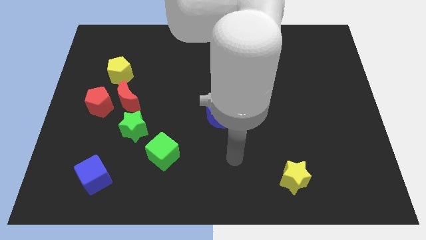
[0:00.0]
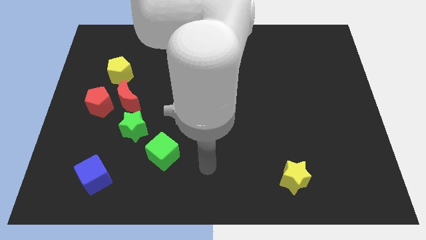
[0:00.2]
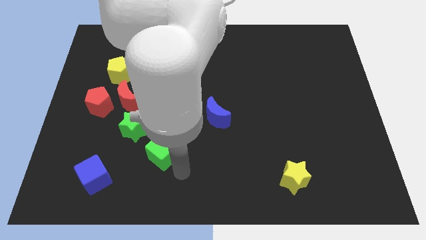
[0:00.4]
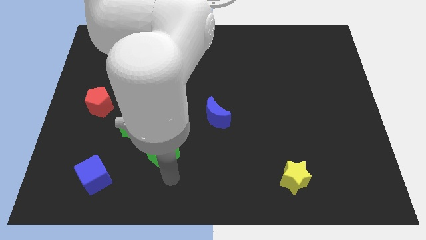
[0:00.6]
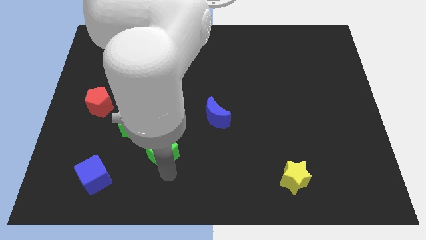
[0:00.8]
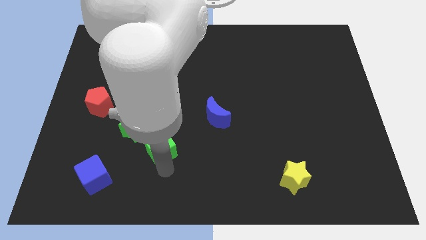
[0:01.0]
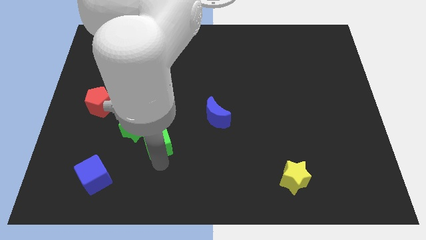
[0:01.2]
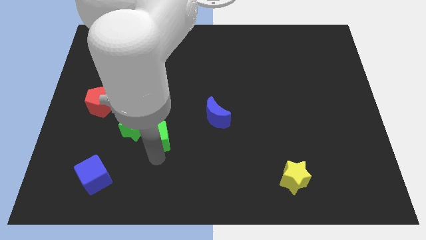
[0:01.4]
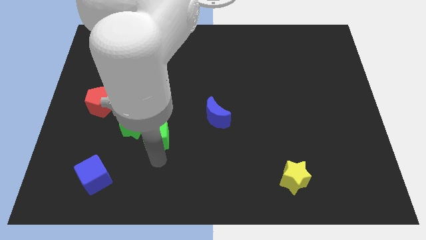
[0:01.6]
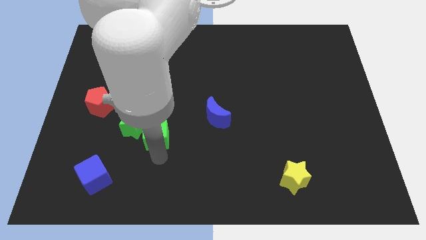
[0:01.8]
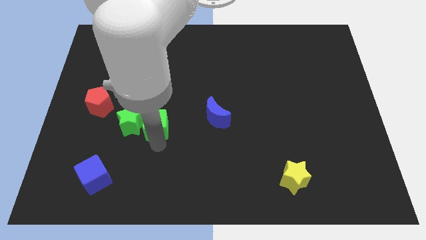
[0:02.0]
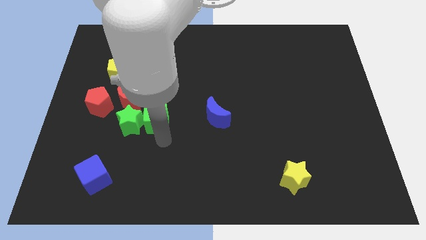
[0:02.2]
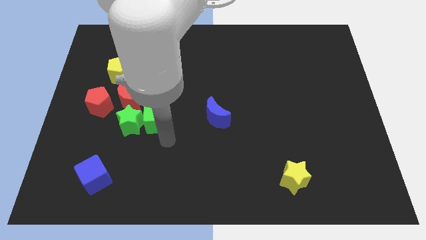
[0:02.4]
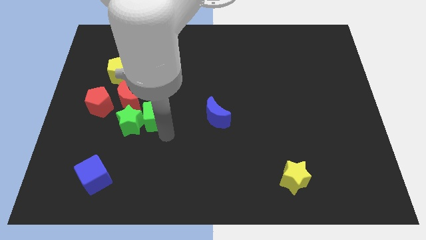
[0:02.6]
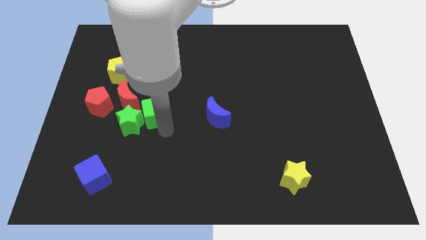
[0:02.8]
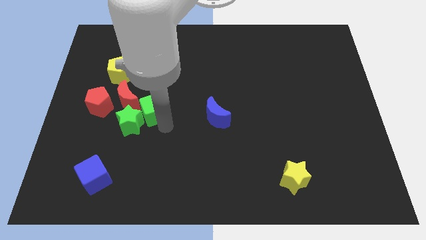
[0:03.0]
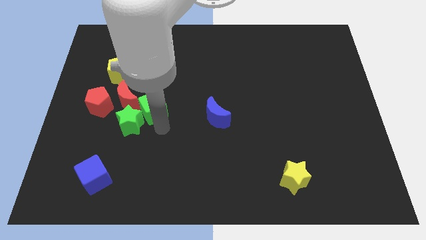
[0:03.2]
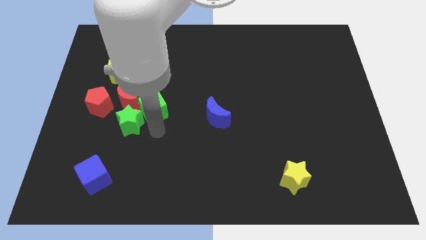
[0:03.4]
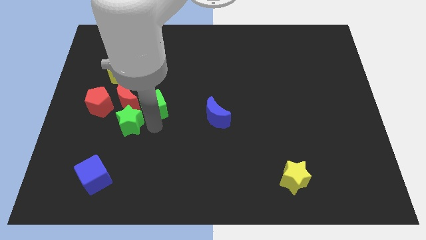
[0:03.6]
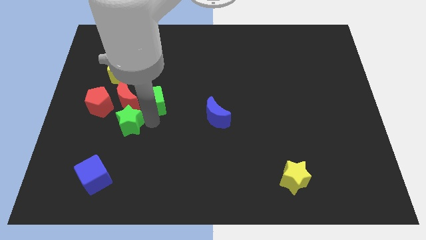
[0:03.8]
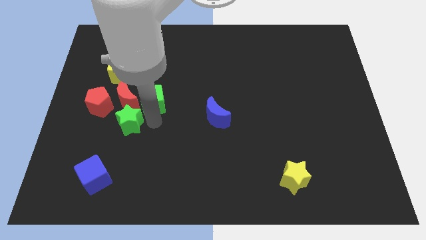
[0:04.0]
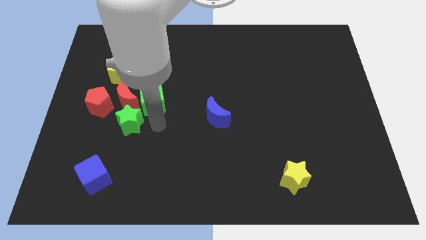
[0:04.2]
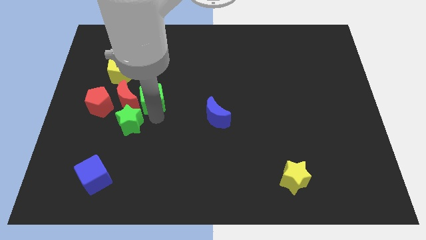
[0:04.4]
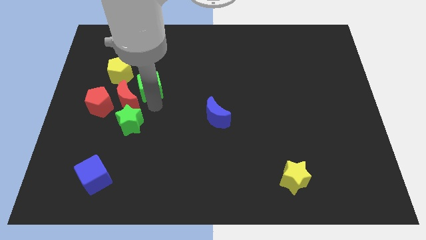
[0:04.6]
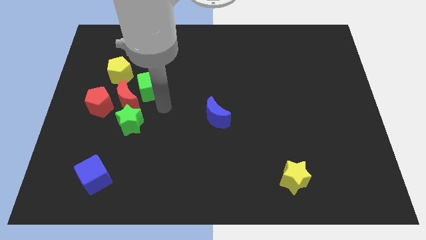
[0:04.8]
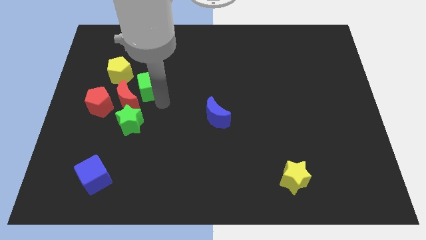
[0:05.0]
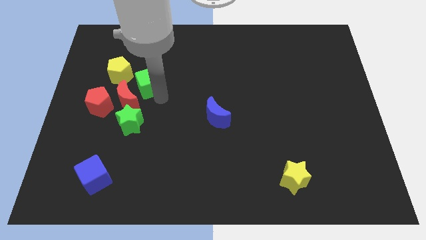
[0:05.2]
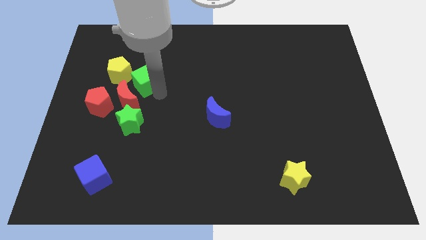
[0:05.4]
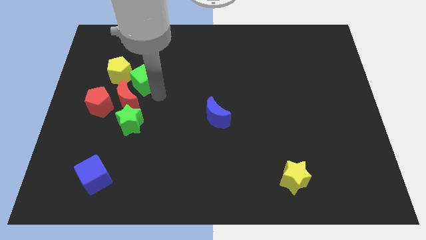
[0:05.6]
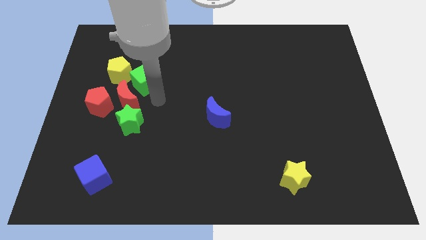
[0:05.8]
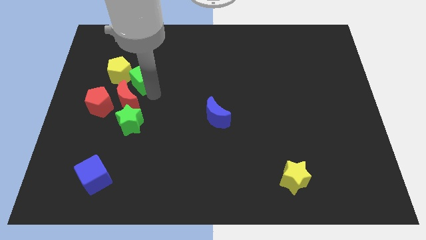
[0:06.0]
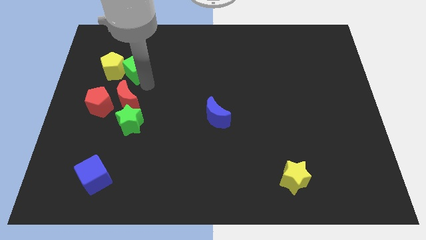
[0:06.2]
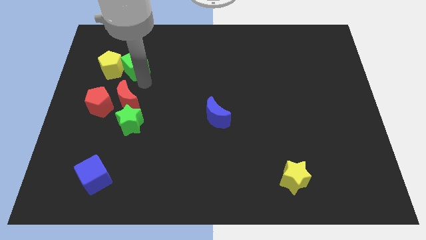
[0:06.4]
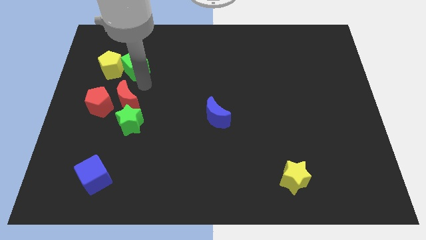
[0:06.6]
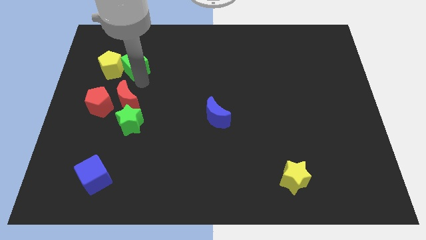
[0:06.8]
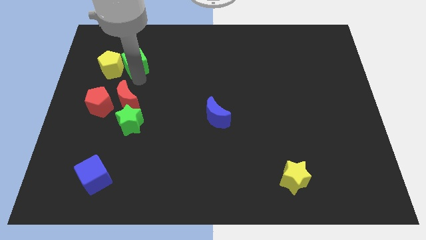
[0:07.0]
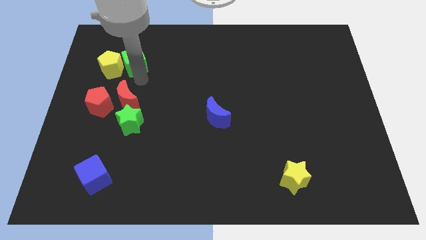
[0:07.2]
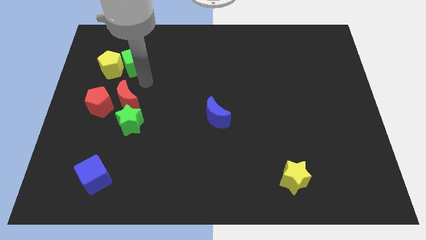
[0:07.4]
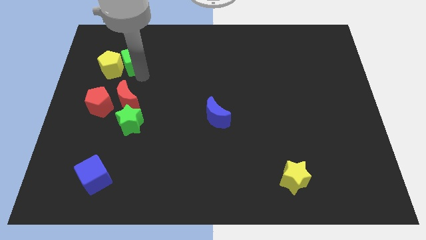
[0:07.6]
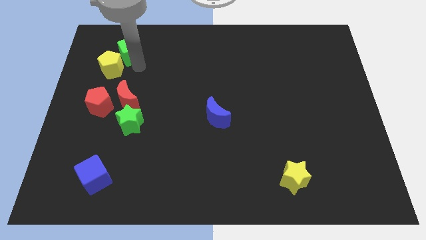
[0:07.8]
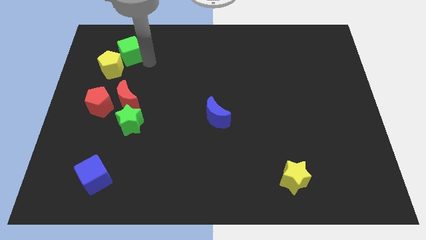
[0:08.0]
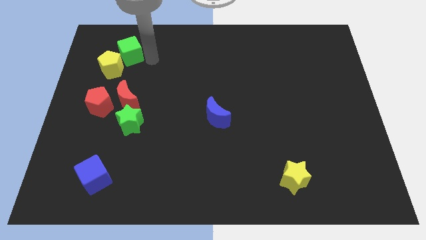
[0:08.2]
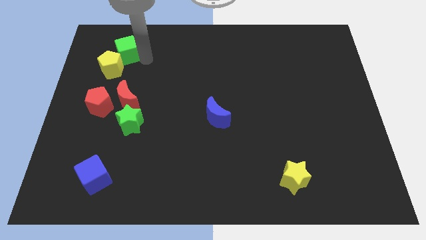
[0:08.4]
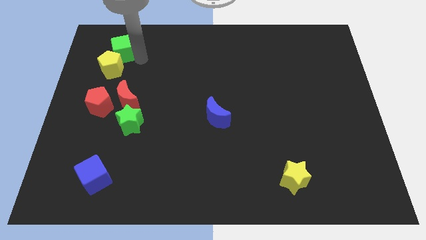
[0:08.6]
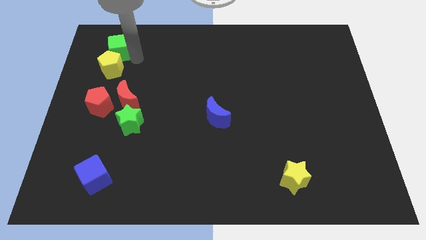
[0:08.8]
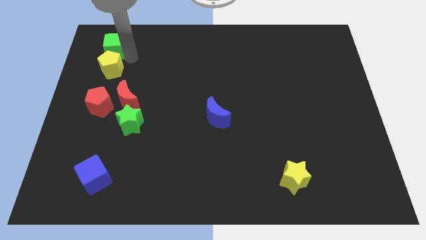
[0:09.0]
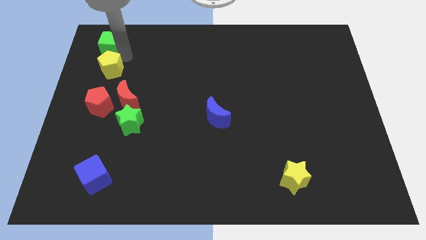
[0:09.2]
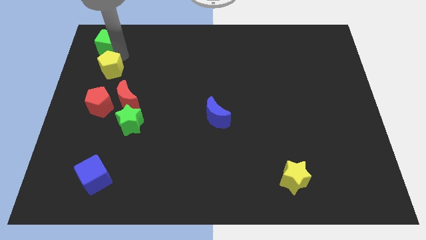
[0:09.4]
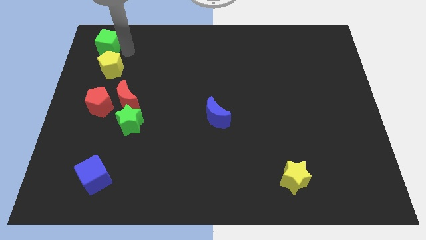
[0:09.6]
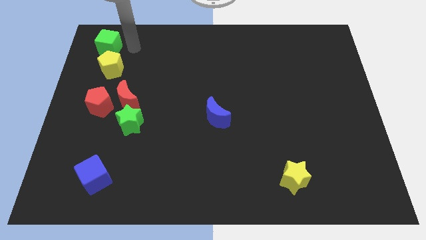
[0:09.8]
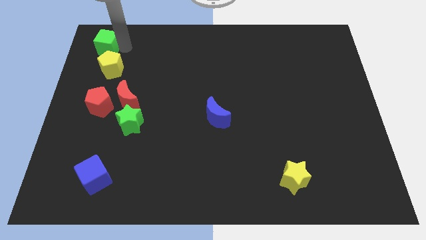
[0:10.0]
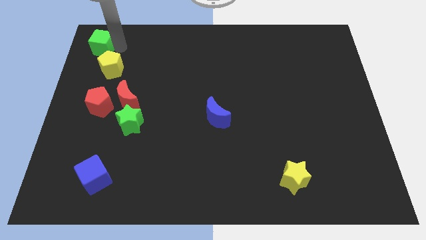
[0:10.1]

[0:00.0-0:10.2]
push the green cube to the upper left corner

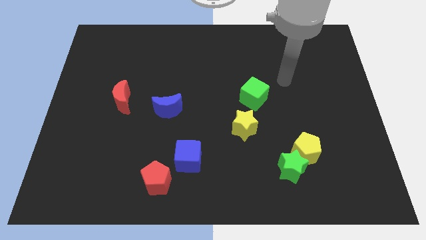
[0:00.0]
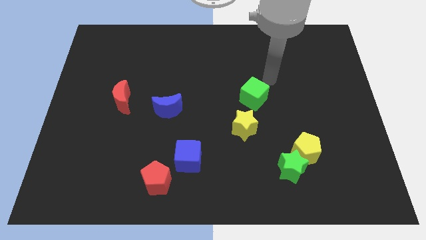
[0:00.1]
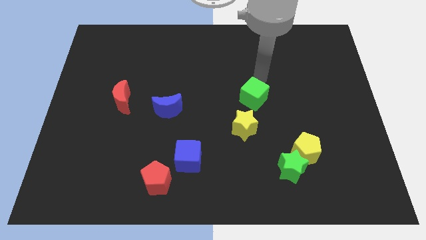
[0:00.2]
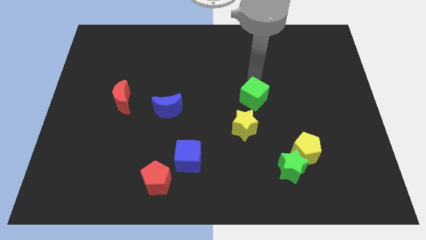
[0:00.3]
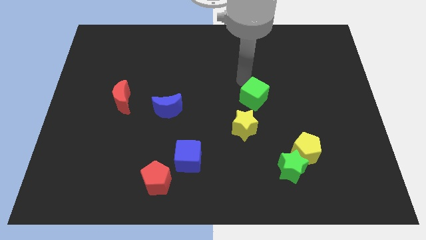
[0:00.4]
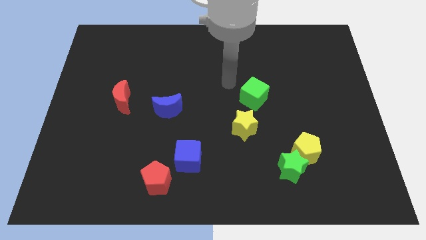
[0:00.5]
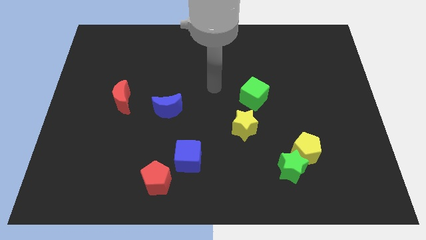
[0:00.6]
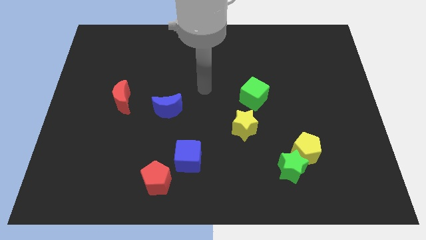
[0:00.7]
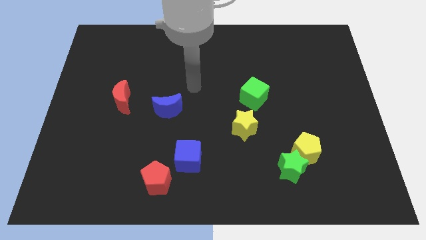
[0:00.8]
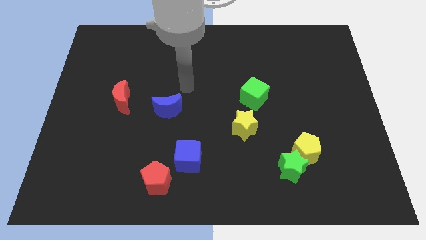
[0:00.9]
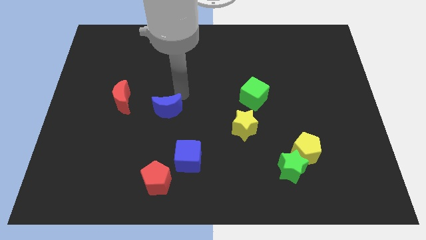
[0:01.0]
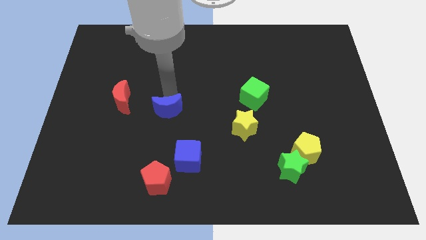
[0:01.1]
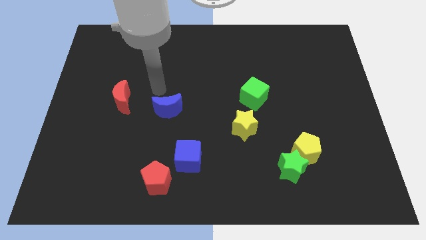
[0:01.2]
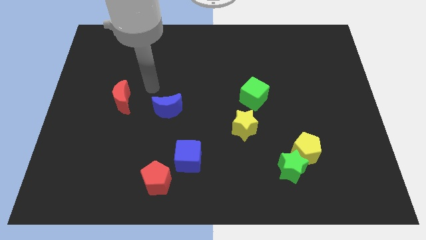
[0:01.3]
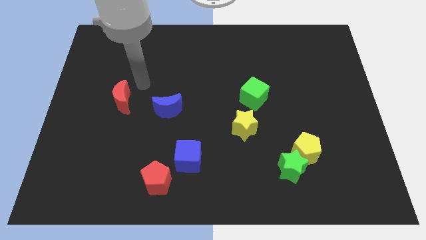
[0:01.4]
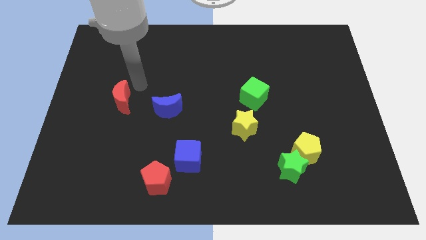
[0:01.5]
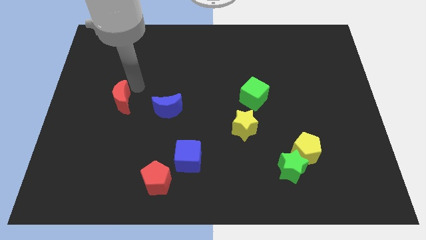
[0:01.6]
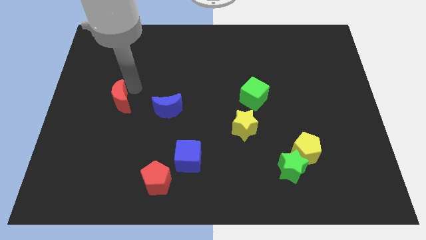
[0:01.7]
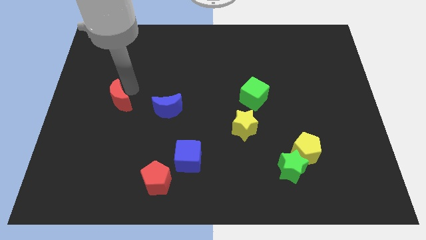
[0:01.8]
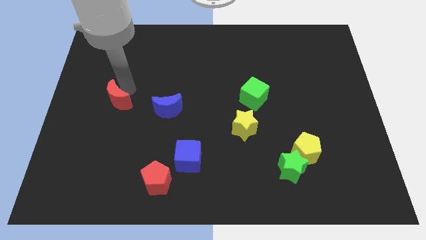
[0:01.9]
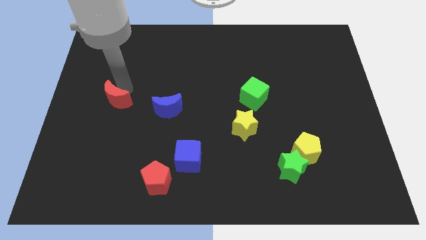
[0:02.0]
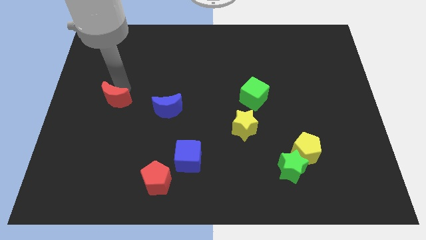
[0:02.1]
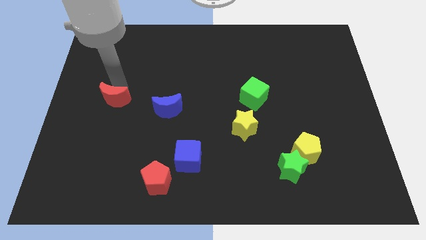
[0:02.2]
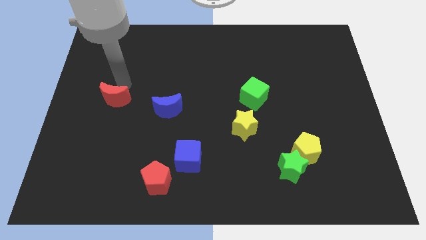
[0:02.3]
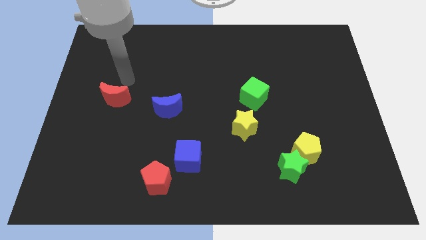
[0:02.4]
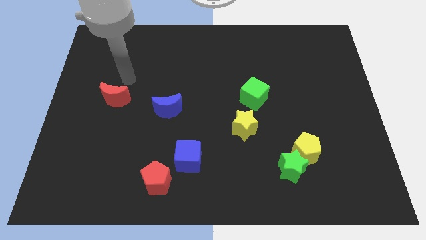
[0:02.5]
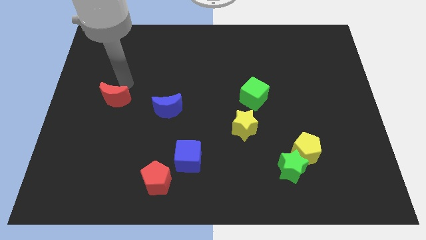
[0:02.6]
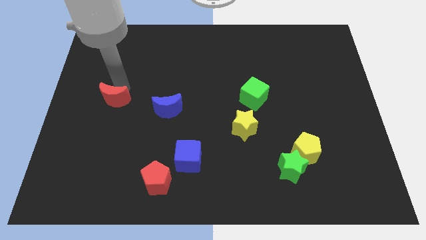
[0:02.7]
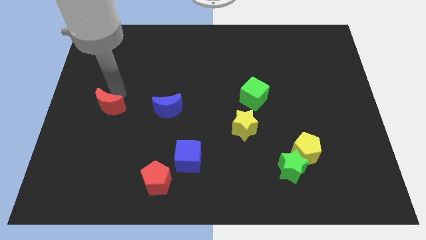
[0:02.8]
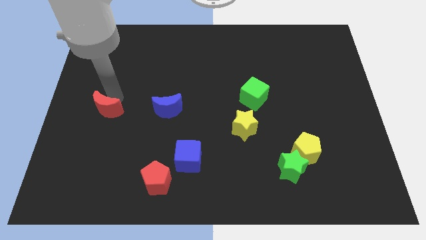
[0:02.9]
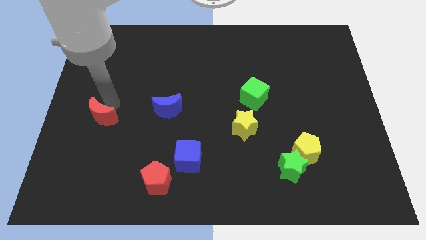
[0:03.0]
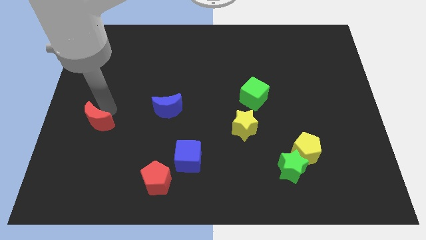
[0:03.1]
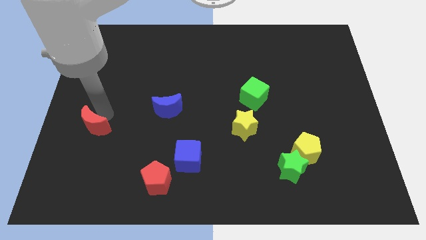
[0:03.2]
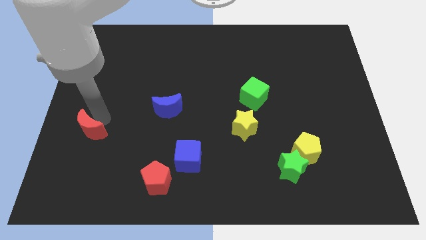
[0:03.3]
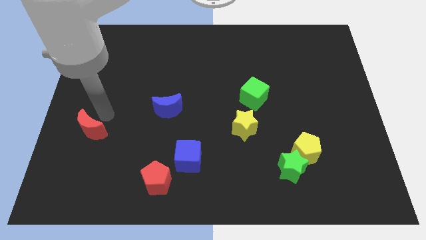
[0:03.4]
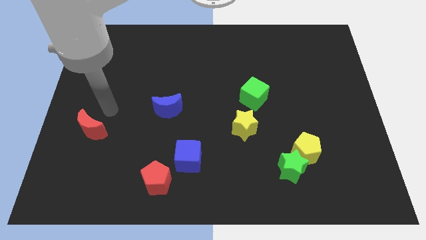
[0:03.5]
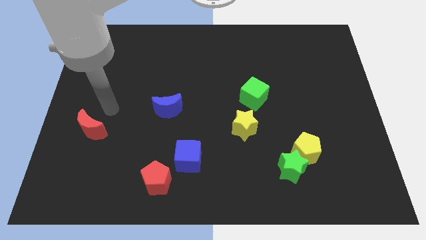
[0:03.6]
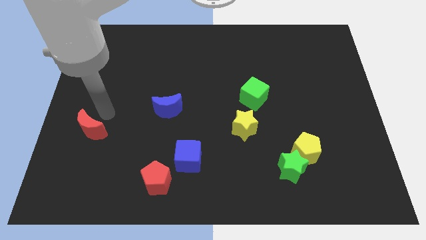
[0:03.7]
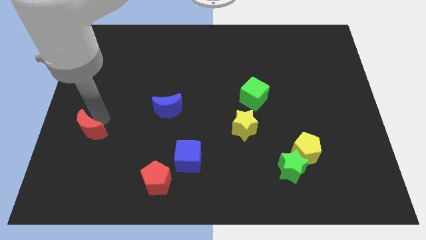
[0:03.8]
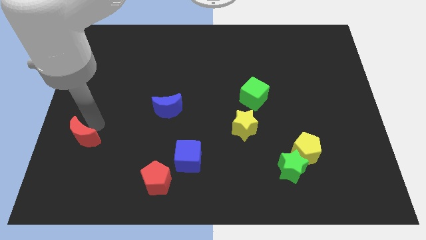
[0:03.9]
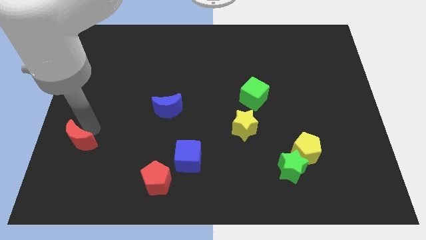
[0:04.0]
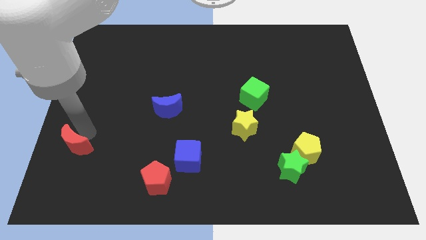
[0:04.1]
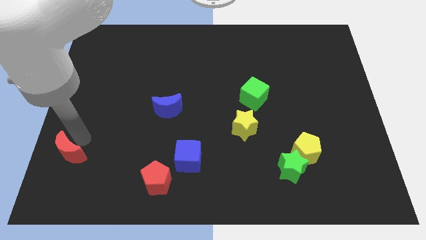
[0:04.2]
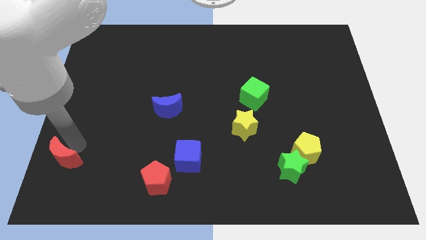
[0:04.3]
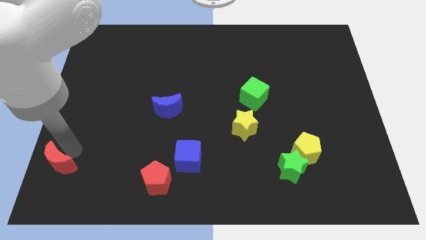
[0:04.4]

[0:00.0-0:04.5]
put the red moon to the bottom left
